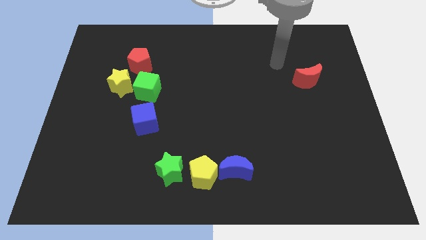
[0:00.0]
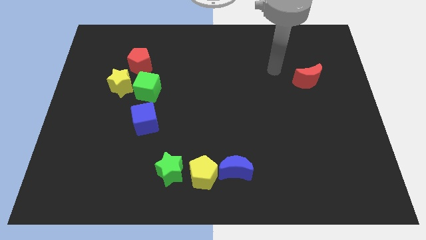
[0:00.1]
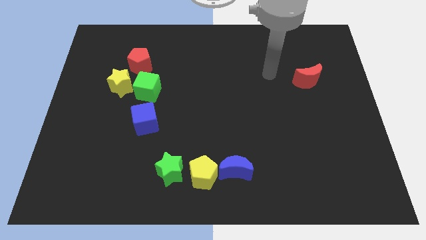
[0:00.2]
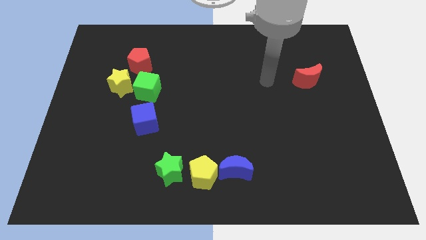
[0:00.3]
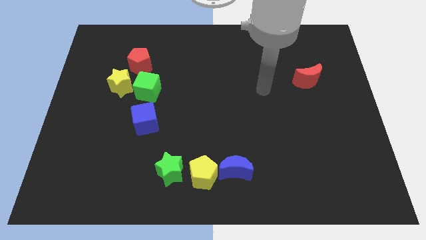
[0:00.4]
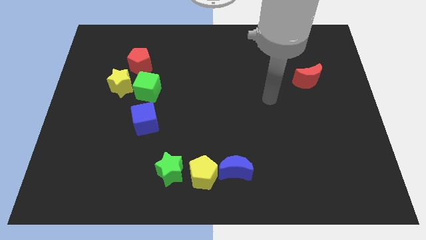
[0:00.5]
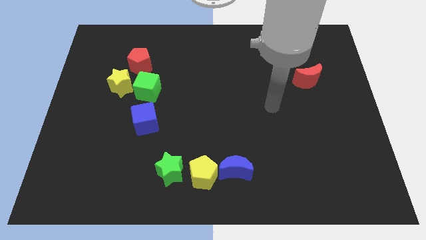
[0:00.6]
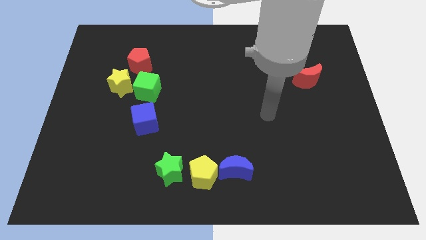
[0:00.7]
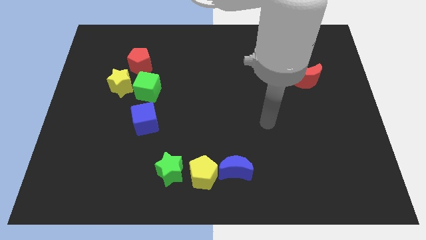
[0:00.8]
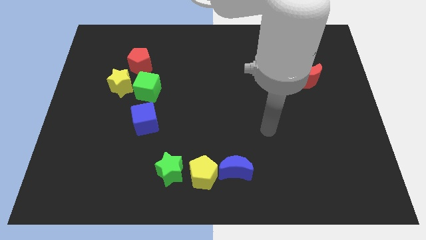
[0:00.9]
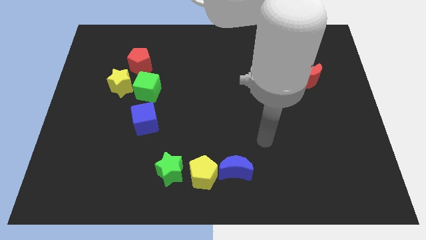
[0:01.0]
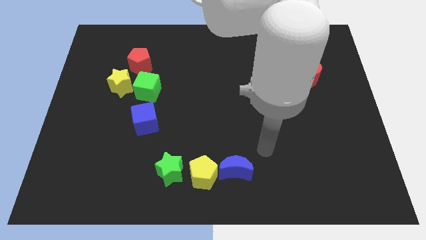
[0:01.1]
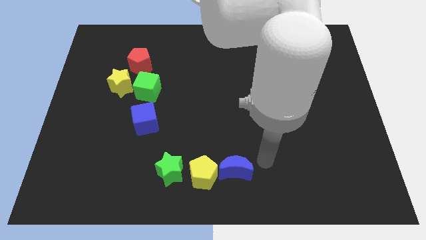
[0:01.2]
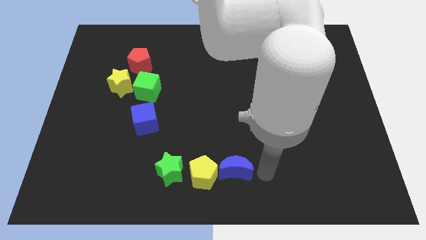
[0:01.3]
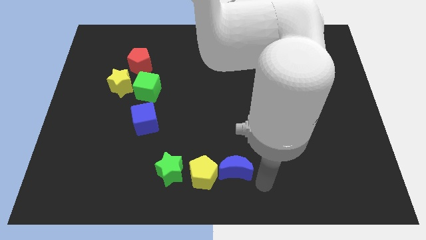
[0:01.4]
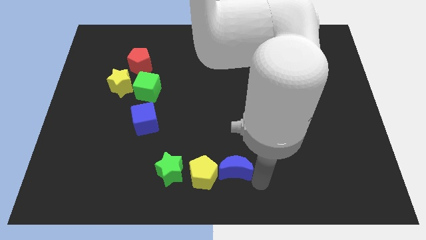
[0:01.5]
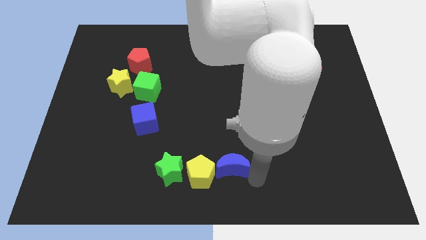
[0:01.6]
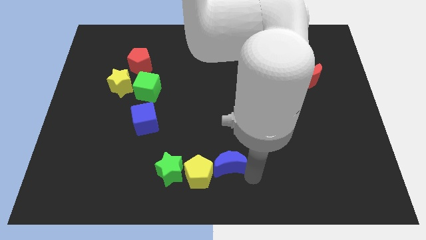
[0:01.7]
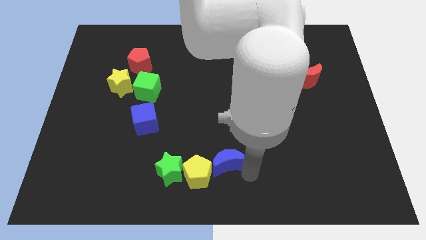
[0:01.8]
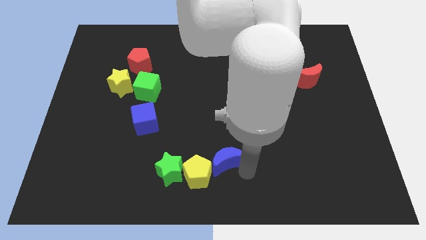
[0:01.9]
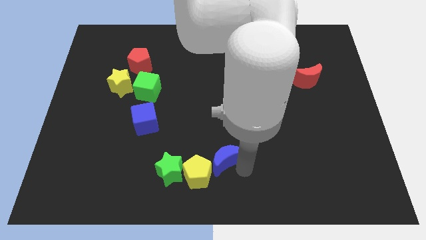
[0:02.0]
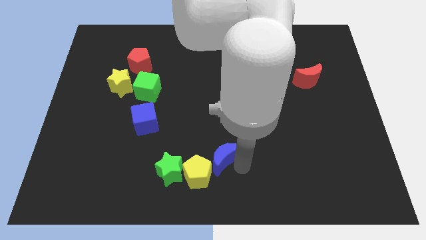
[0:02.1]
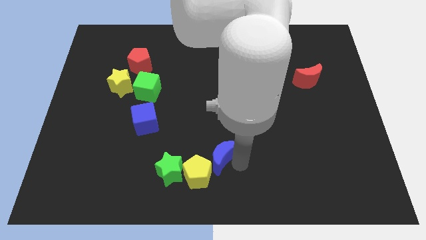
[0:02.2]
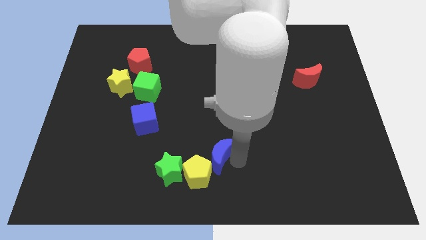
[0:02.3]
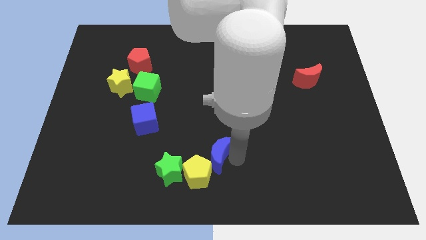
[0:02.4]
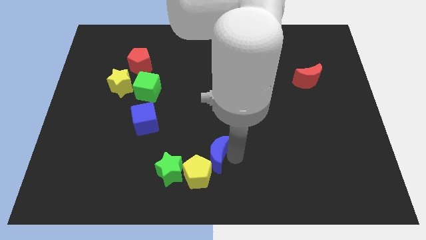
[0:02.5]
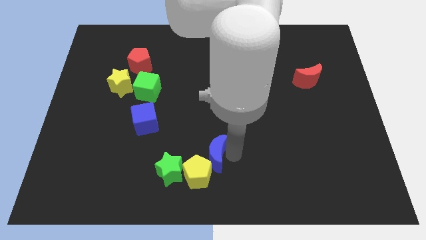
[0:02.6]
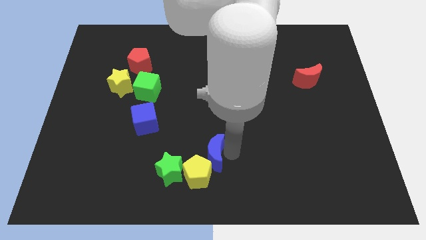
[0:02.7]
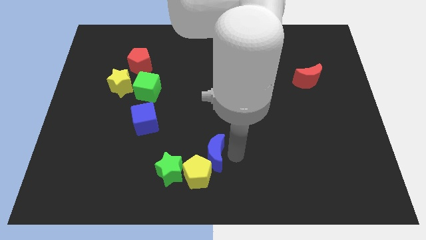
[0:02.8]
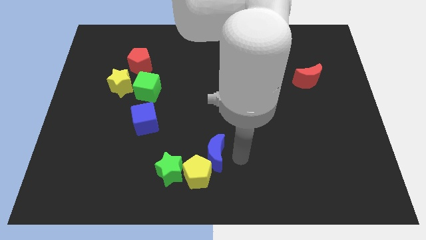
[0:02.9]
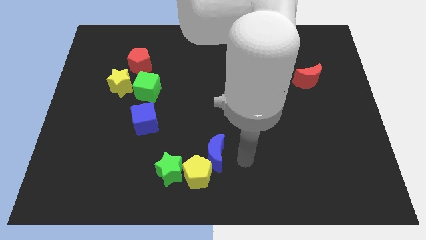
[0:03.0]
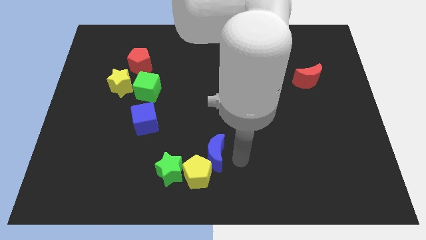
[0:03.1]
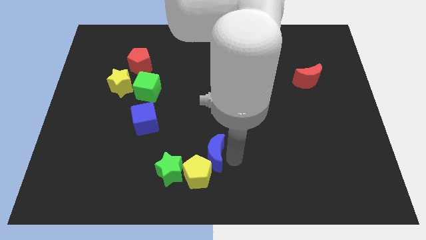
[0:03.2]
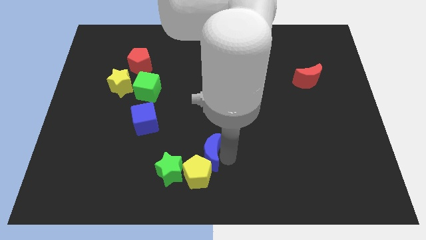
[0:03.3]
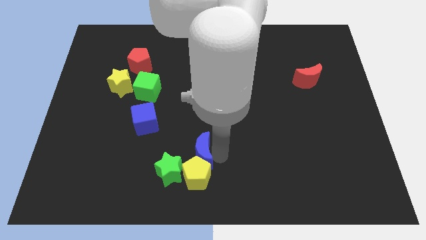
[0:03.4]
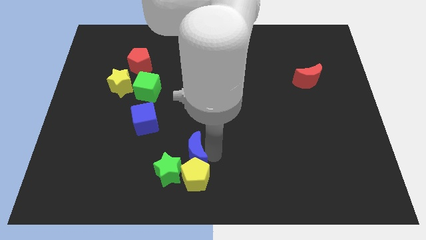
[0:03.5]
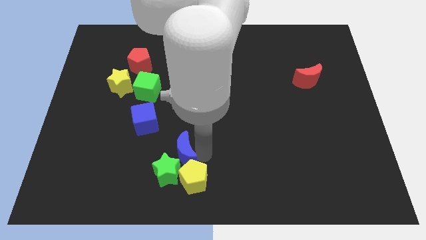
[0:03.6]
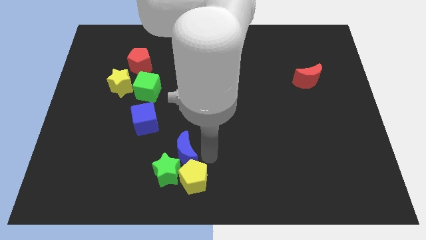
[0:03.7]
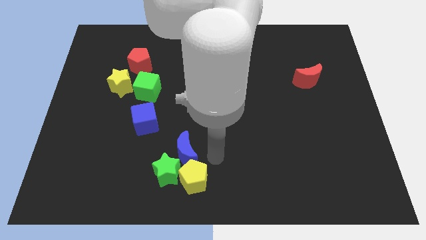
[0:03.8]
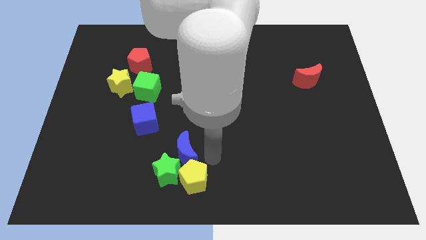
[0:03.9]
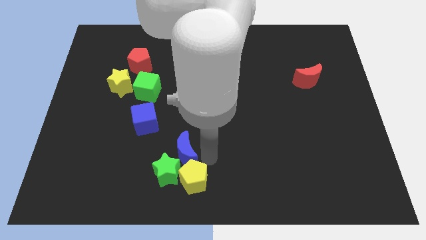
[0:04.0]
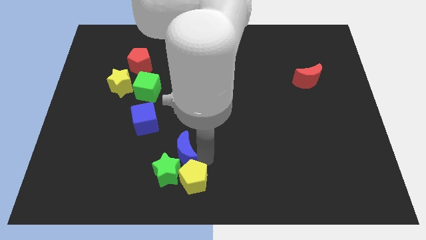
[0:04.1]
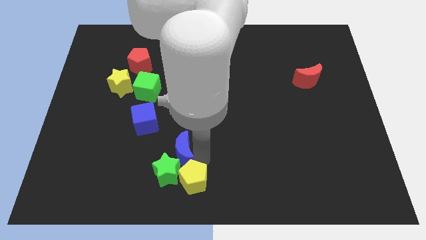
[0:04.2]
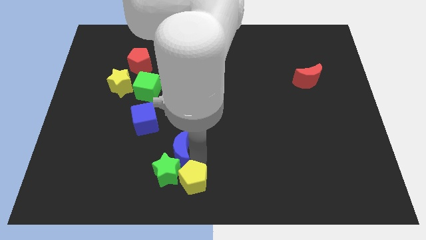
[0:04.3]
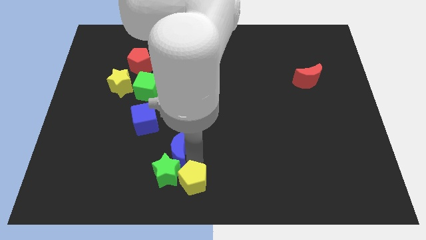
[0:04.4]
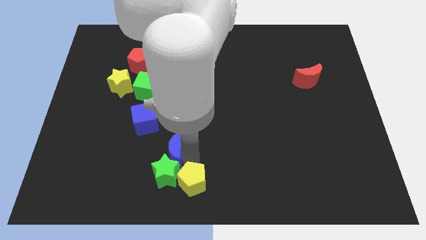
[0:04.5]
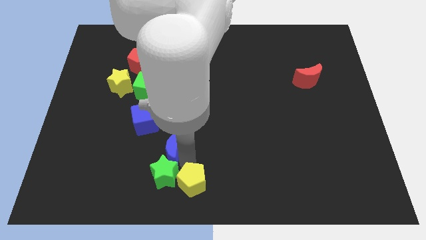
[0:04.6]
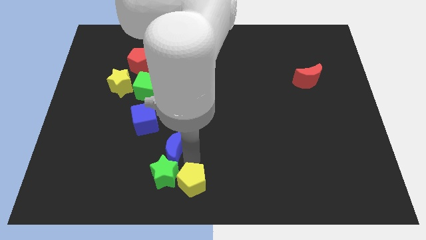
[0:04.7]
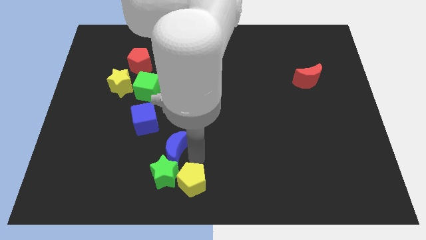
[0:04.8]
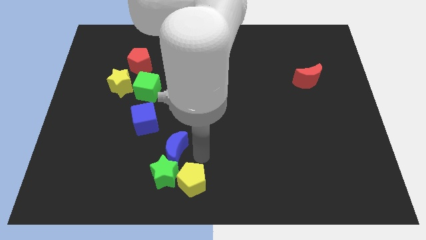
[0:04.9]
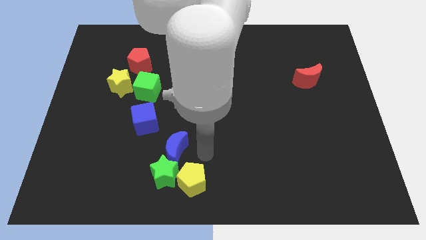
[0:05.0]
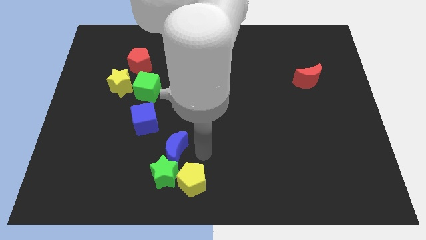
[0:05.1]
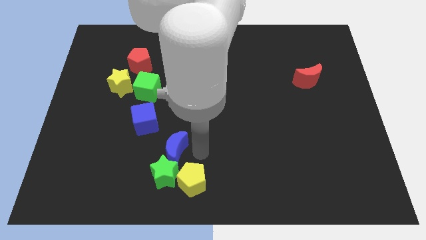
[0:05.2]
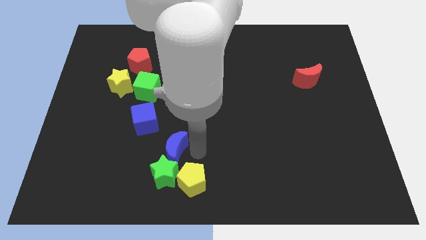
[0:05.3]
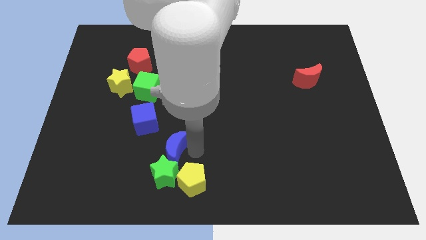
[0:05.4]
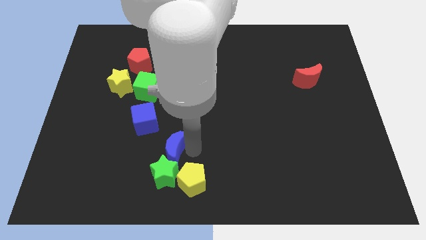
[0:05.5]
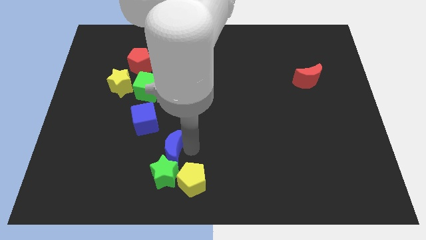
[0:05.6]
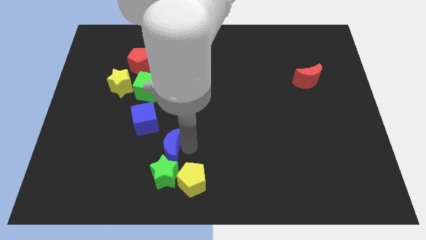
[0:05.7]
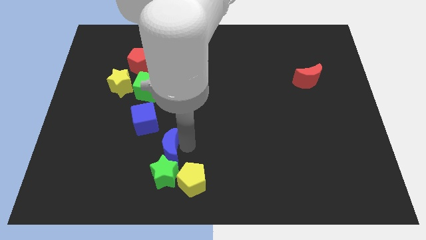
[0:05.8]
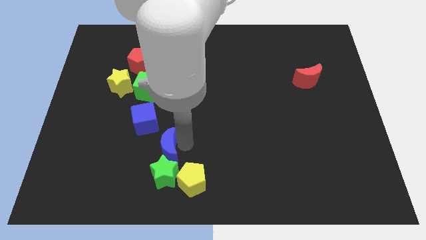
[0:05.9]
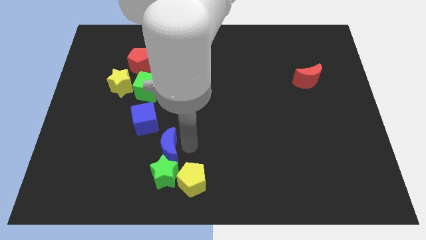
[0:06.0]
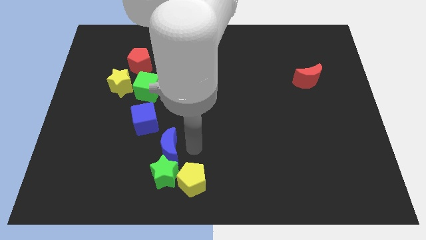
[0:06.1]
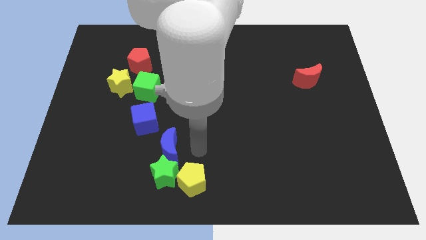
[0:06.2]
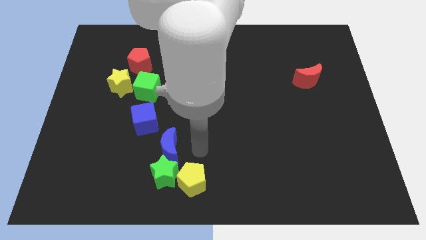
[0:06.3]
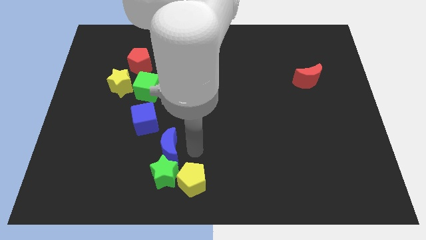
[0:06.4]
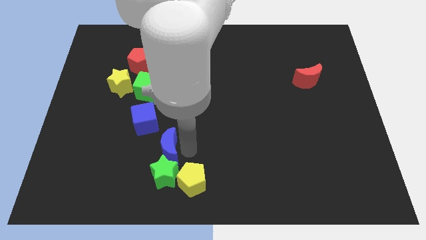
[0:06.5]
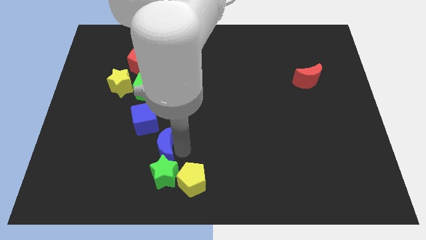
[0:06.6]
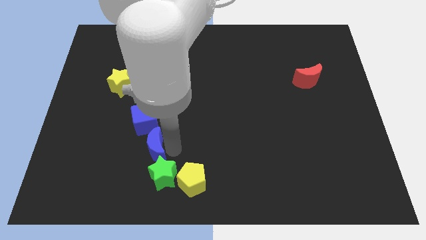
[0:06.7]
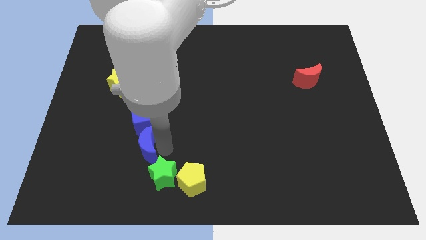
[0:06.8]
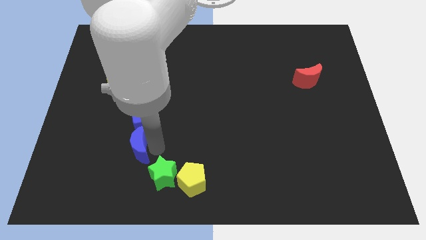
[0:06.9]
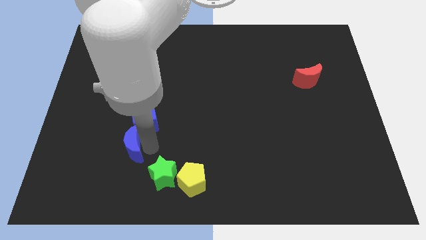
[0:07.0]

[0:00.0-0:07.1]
push the blue moon left

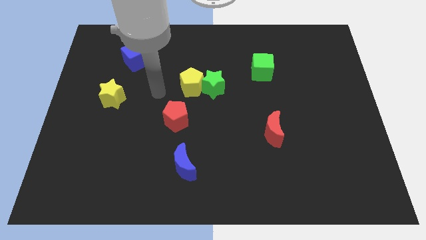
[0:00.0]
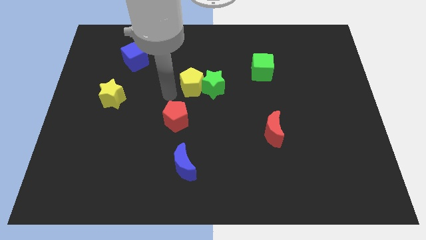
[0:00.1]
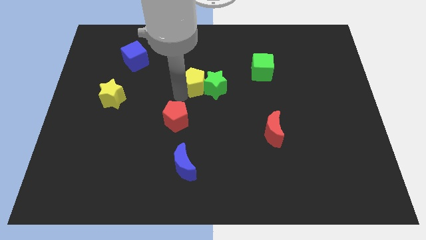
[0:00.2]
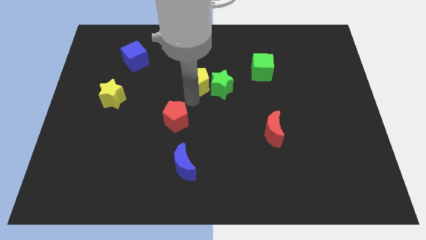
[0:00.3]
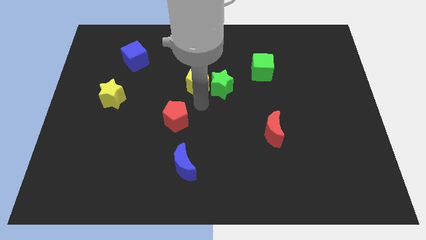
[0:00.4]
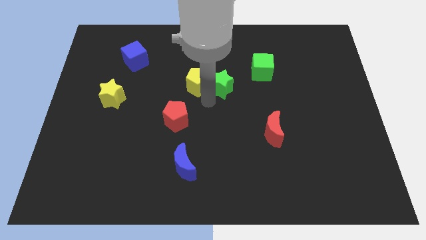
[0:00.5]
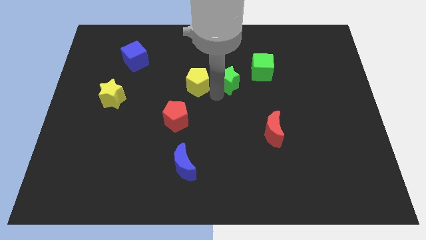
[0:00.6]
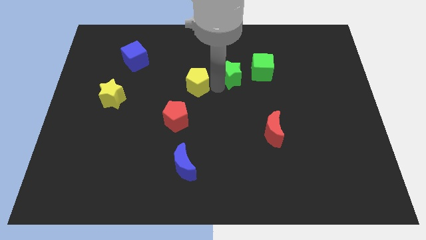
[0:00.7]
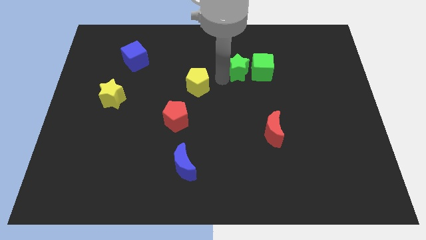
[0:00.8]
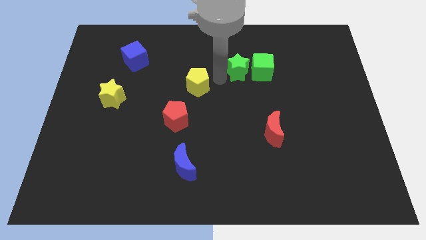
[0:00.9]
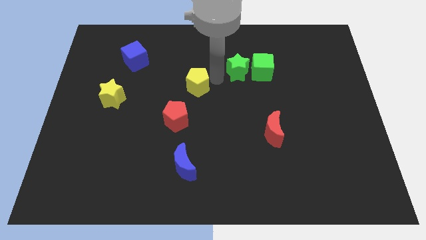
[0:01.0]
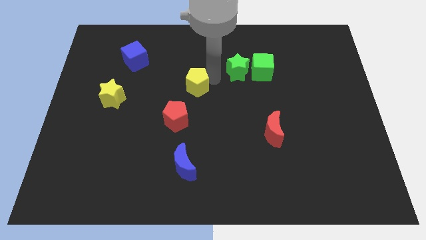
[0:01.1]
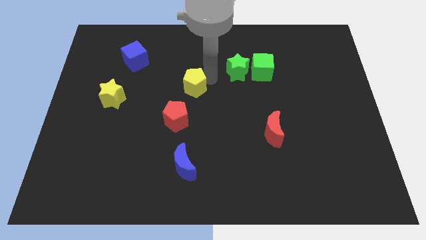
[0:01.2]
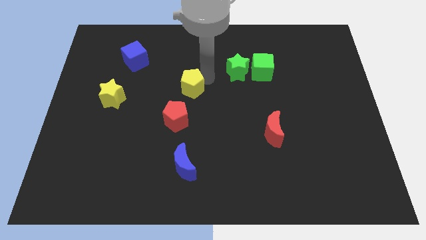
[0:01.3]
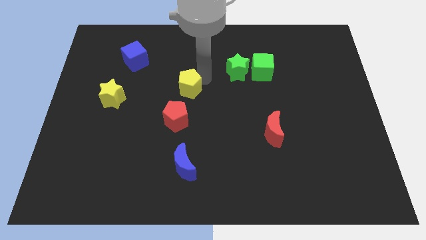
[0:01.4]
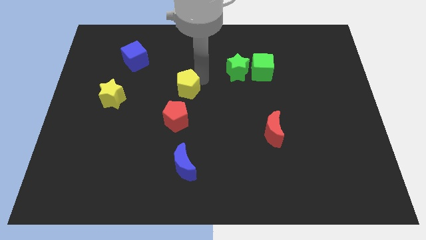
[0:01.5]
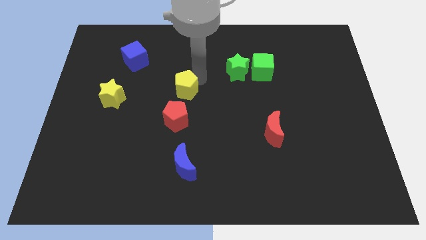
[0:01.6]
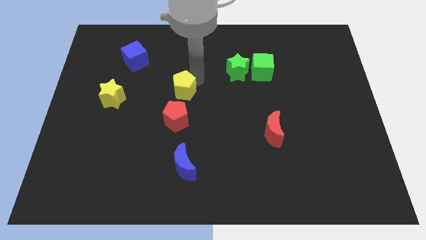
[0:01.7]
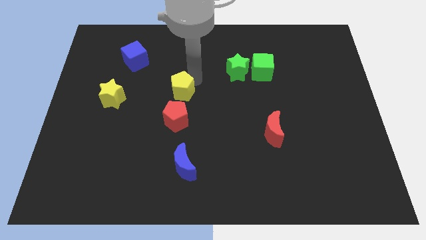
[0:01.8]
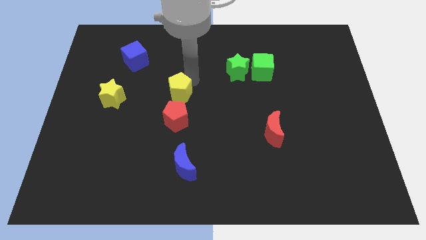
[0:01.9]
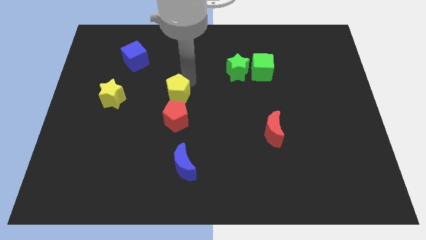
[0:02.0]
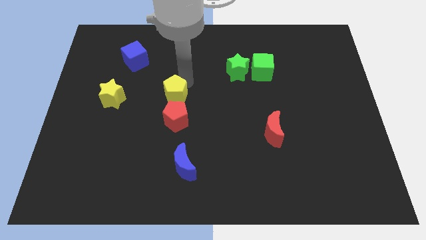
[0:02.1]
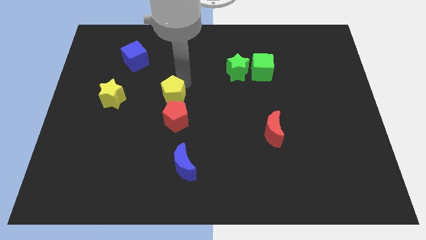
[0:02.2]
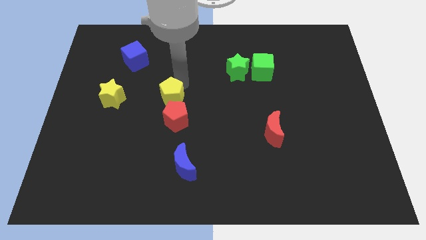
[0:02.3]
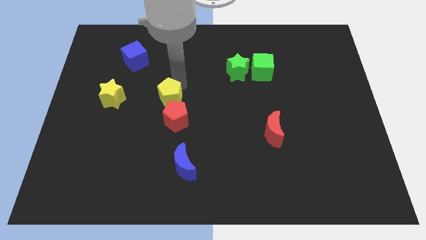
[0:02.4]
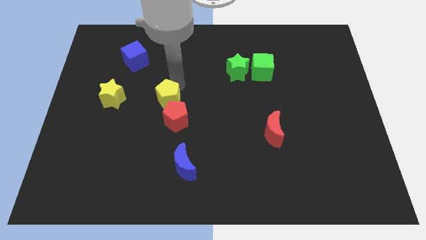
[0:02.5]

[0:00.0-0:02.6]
move the yellow pentagon down and left diagonally a bit
